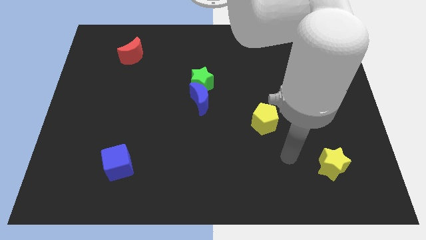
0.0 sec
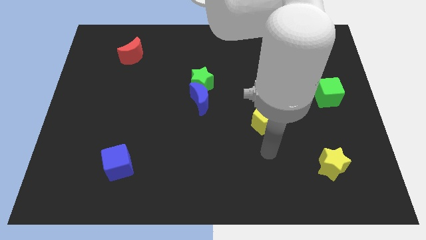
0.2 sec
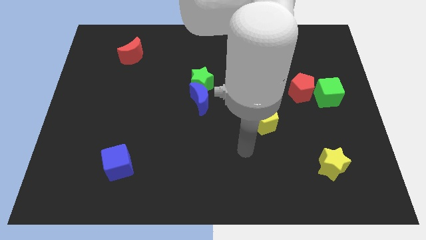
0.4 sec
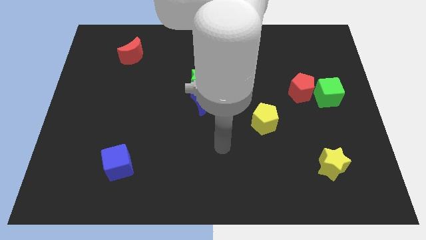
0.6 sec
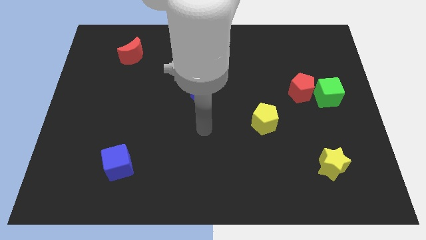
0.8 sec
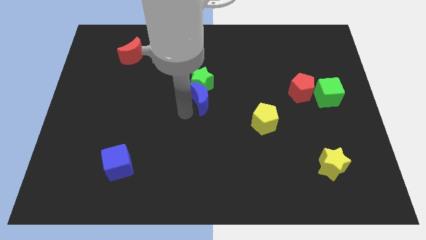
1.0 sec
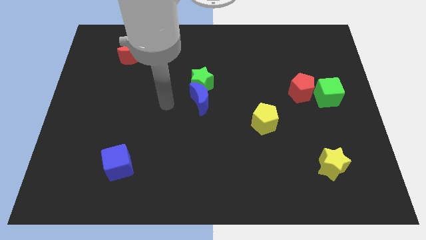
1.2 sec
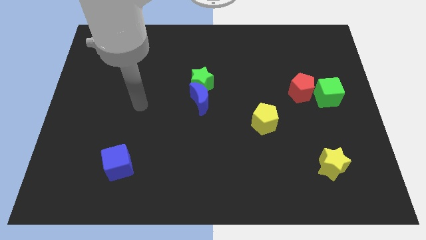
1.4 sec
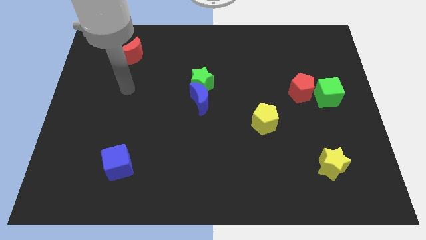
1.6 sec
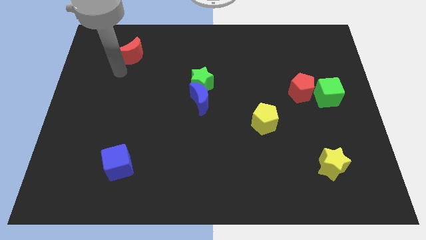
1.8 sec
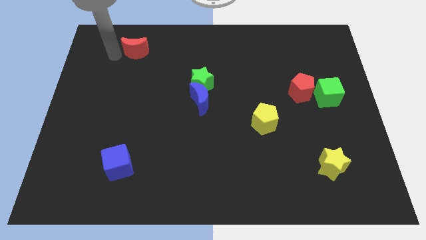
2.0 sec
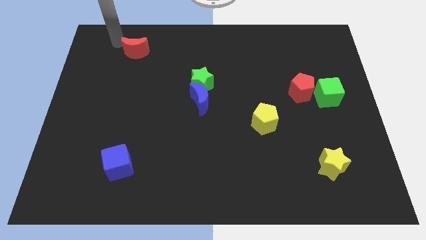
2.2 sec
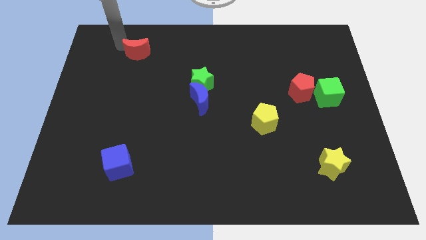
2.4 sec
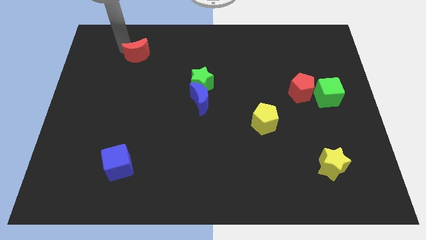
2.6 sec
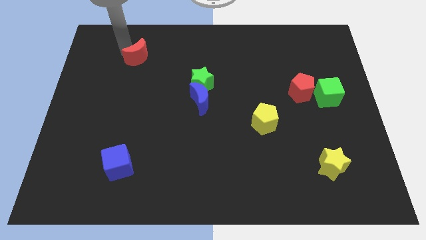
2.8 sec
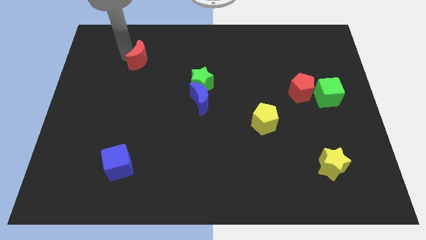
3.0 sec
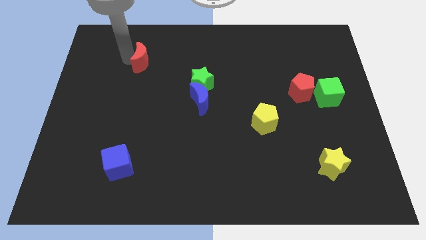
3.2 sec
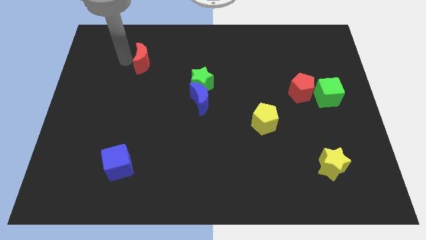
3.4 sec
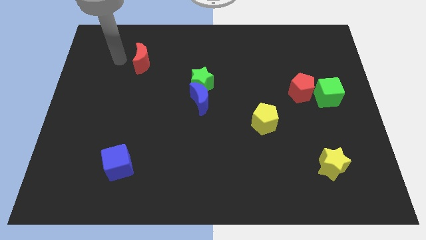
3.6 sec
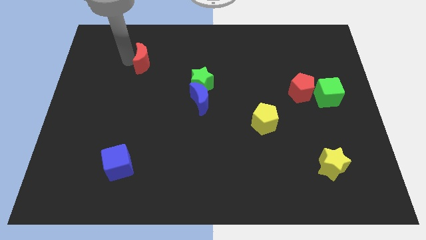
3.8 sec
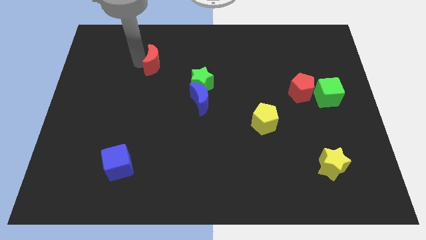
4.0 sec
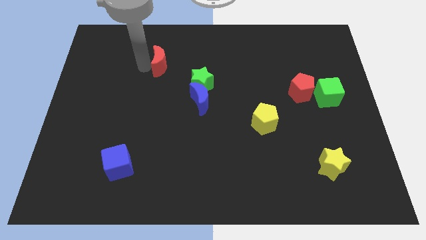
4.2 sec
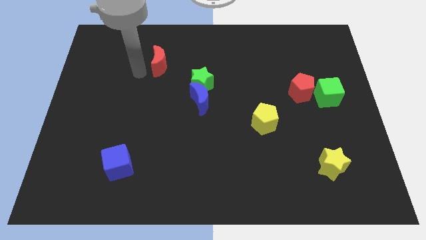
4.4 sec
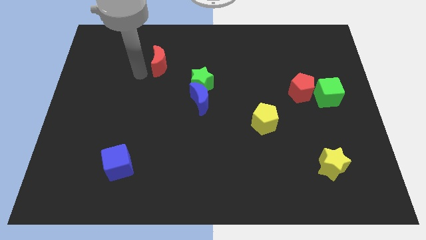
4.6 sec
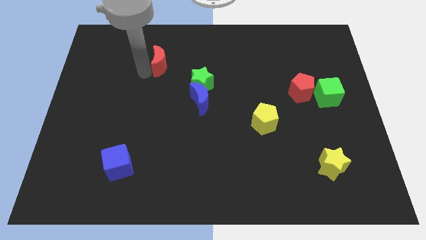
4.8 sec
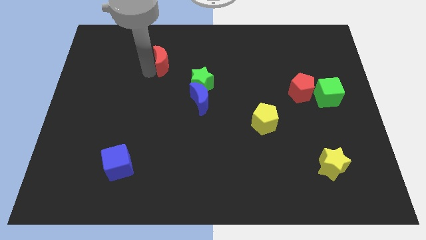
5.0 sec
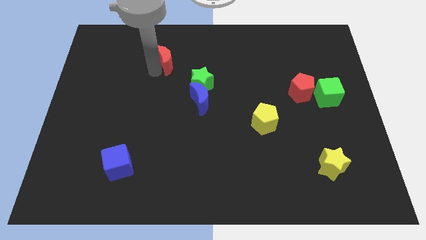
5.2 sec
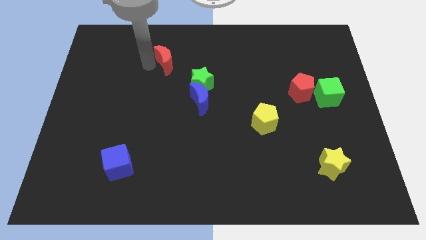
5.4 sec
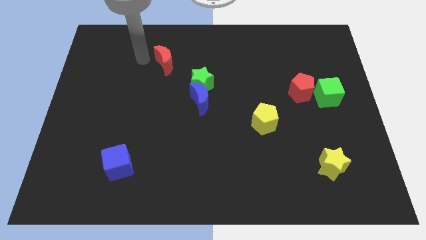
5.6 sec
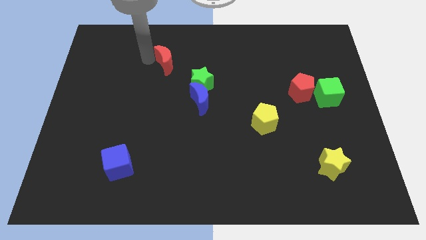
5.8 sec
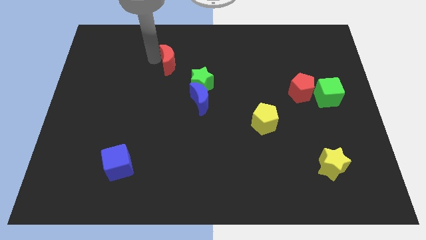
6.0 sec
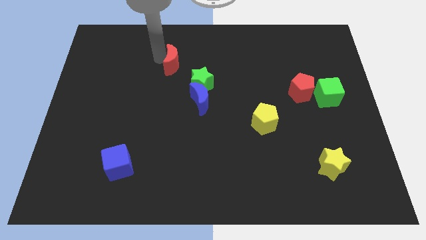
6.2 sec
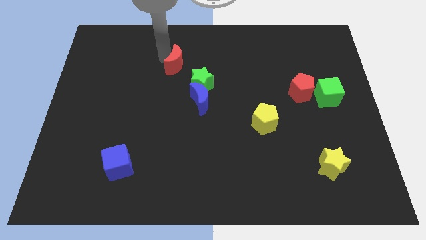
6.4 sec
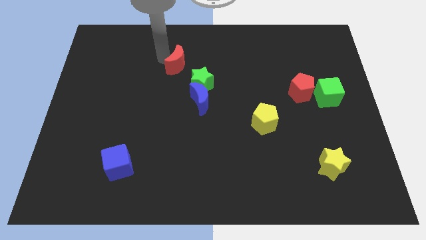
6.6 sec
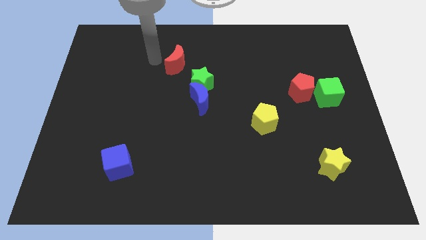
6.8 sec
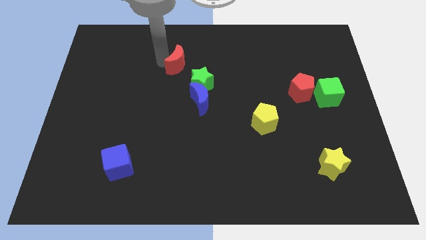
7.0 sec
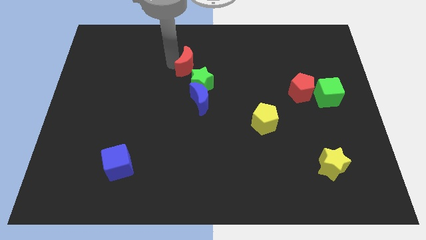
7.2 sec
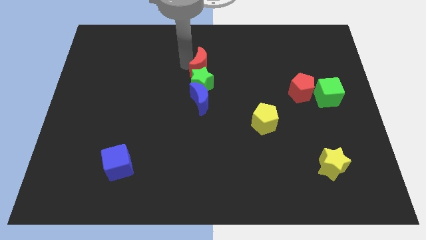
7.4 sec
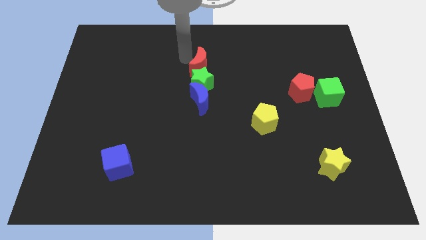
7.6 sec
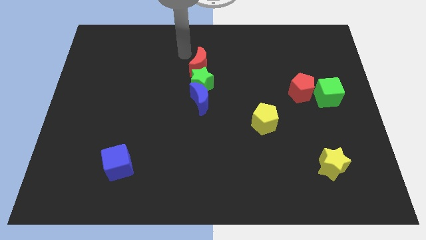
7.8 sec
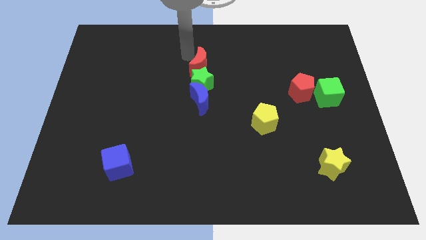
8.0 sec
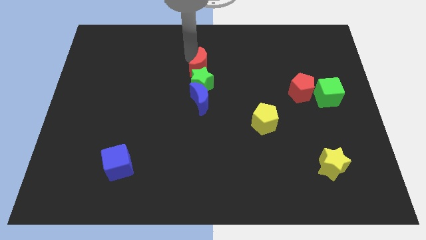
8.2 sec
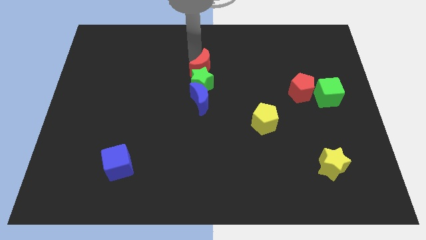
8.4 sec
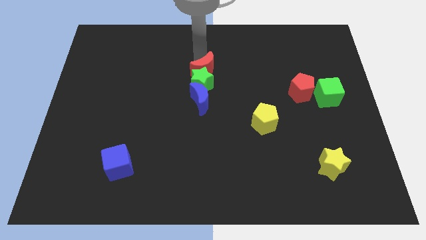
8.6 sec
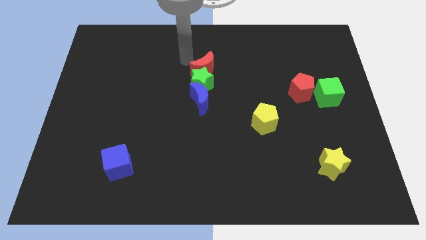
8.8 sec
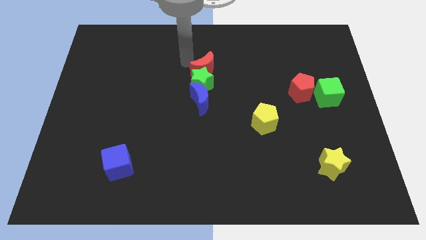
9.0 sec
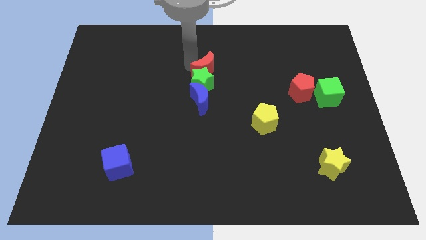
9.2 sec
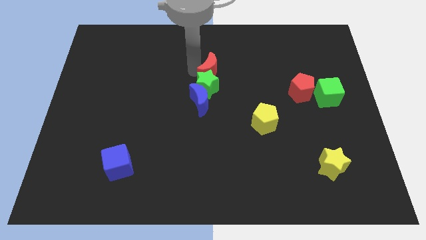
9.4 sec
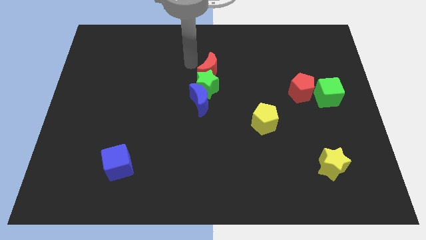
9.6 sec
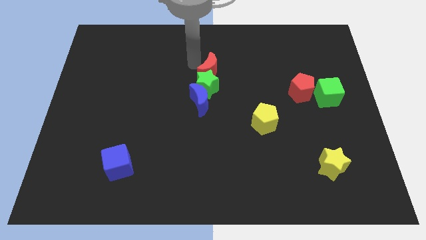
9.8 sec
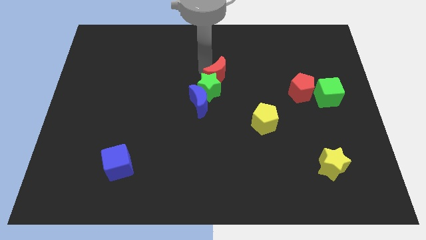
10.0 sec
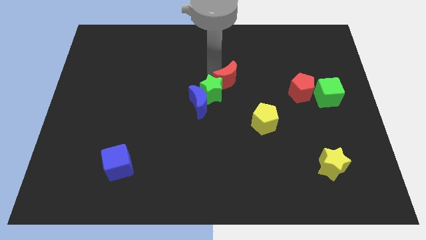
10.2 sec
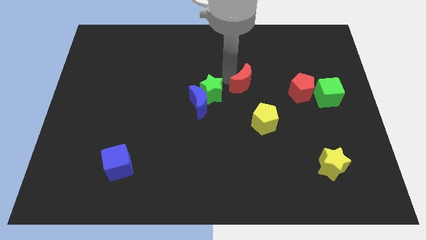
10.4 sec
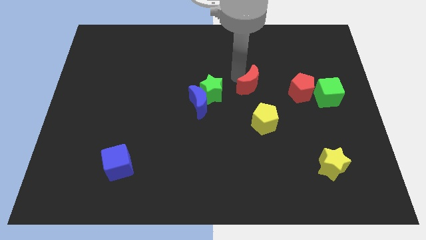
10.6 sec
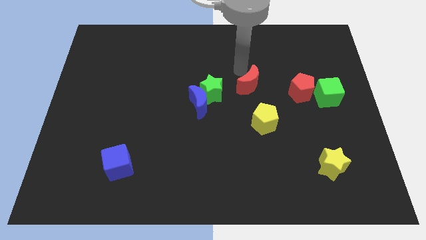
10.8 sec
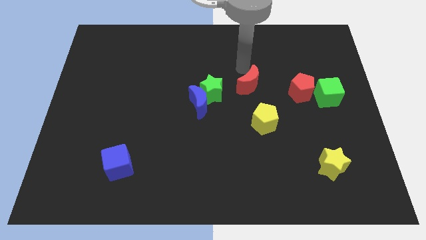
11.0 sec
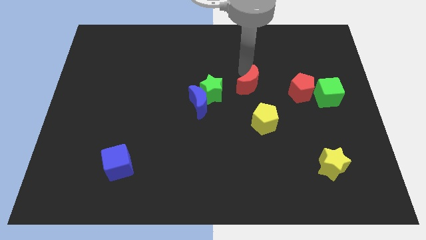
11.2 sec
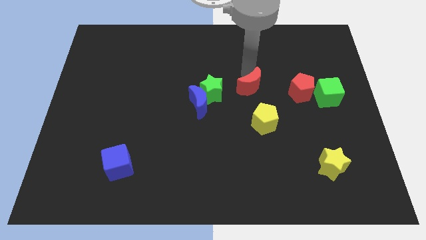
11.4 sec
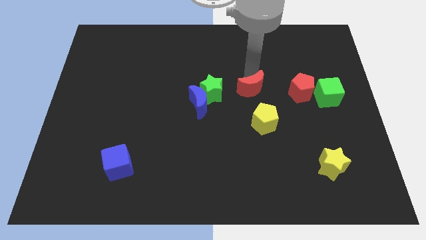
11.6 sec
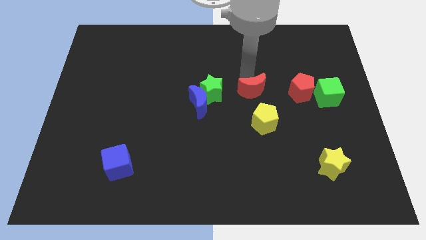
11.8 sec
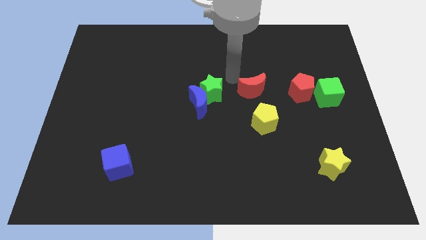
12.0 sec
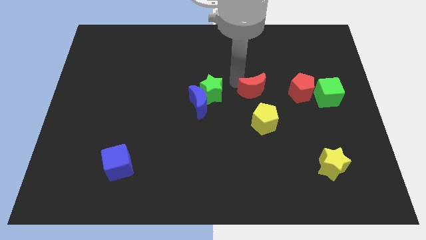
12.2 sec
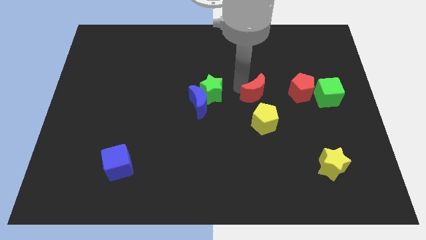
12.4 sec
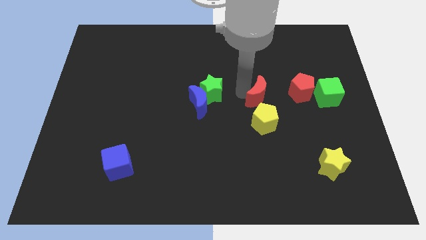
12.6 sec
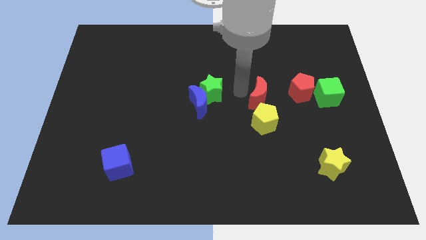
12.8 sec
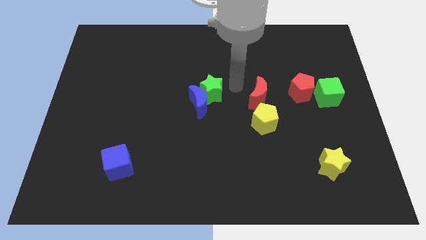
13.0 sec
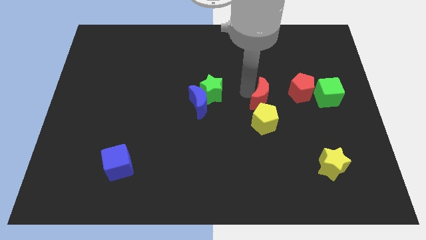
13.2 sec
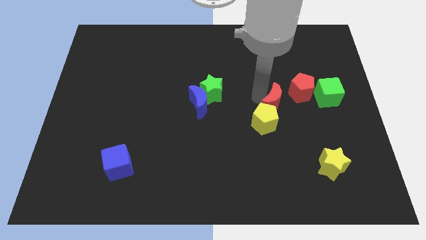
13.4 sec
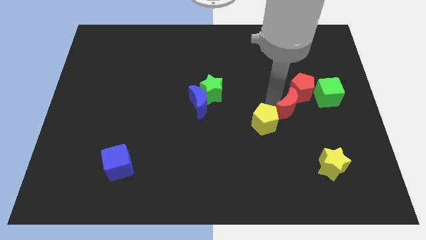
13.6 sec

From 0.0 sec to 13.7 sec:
move the red moon below the red pentagon

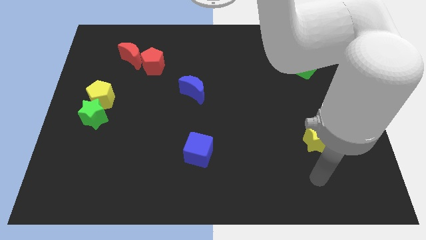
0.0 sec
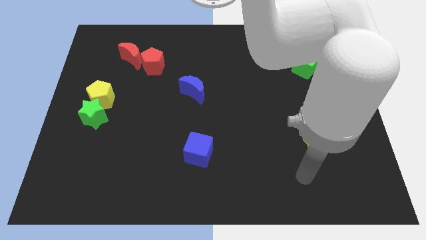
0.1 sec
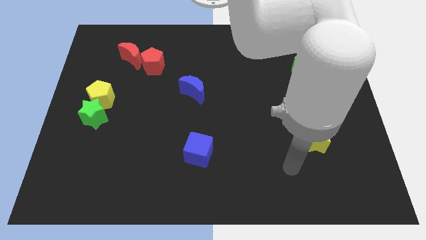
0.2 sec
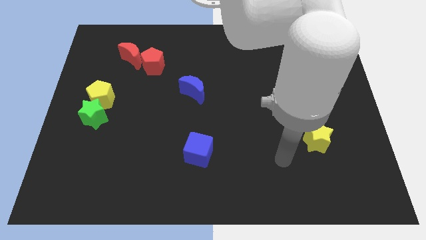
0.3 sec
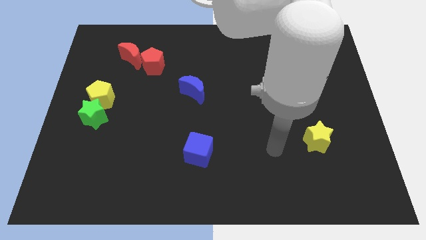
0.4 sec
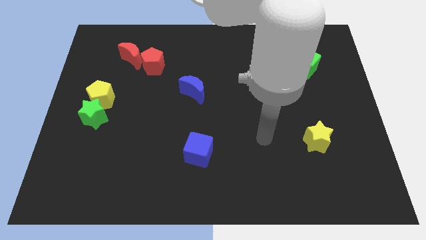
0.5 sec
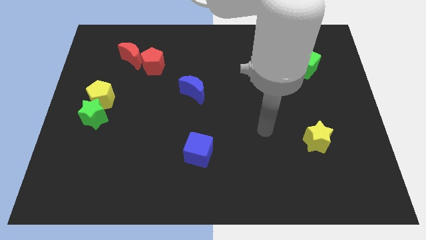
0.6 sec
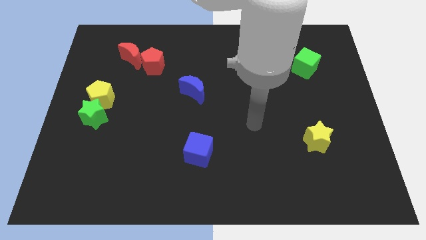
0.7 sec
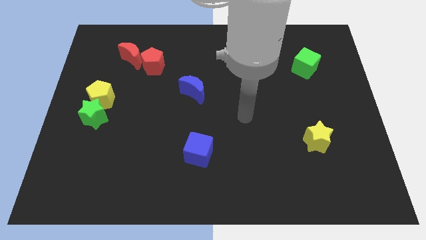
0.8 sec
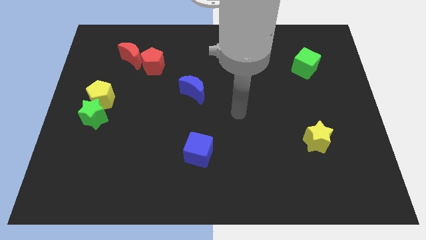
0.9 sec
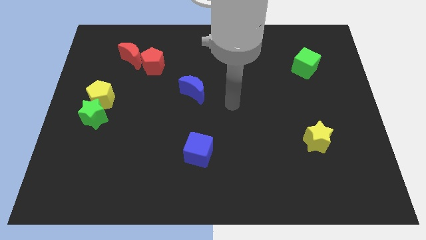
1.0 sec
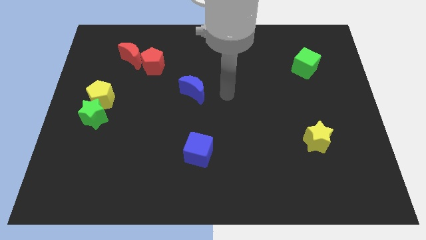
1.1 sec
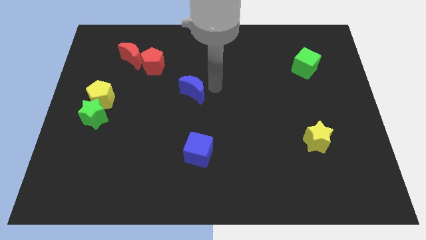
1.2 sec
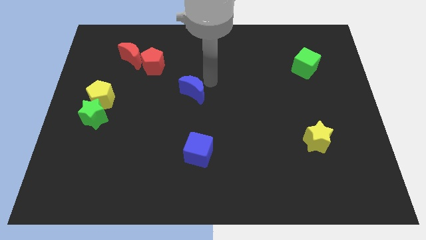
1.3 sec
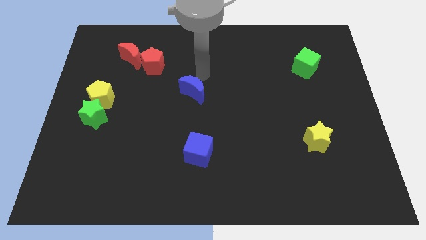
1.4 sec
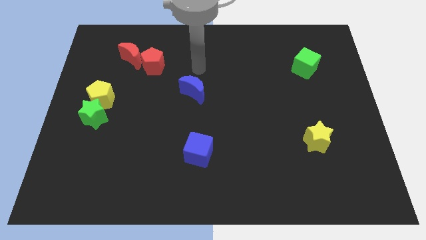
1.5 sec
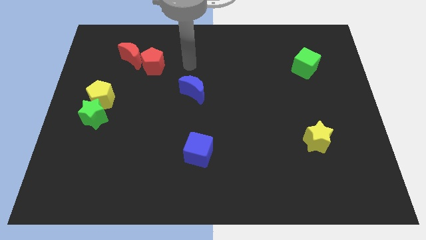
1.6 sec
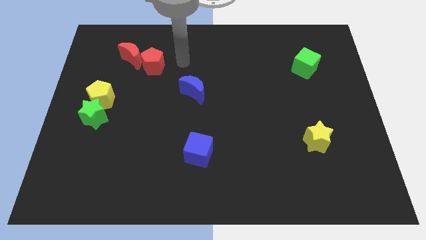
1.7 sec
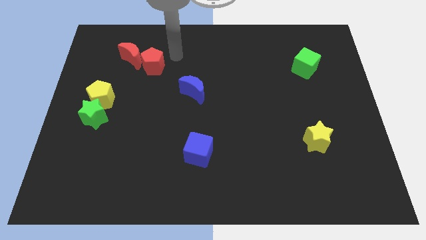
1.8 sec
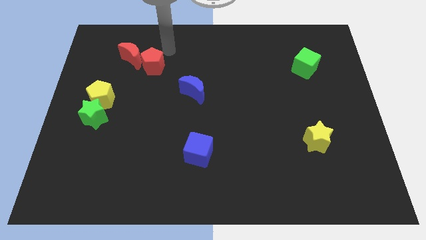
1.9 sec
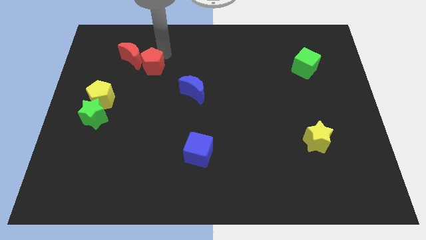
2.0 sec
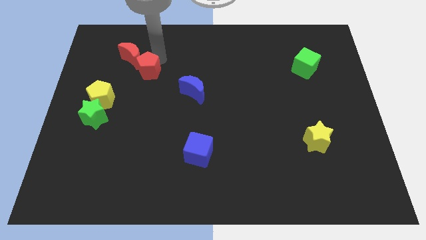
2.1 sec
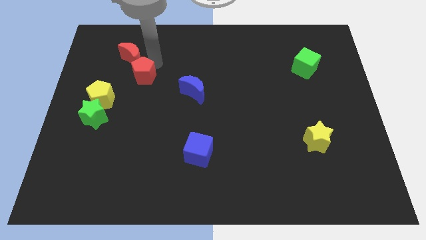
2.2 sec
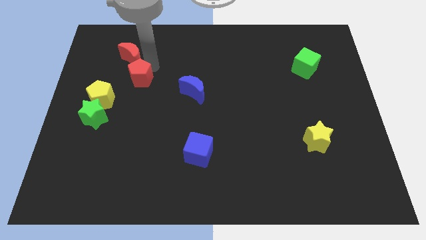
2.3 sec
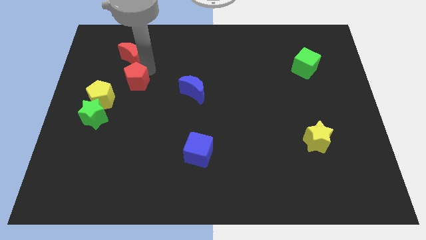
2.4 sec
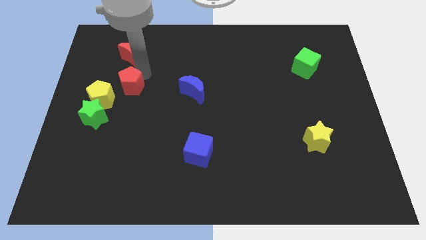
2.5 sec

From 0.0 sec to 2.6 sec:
put the red pentagon diagonally up and to the right of the green star
